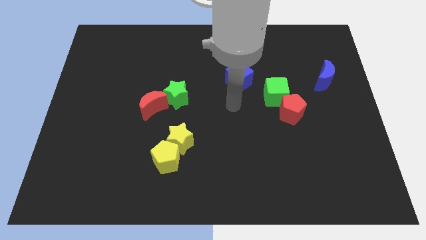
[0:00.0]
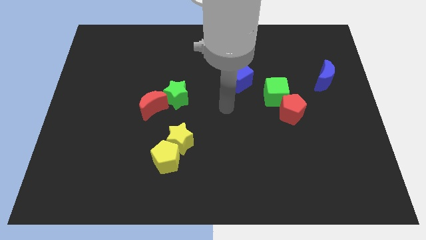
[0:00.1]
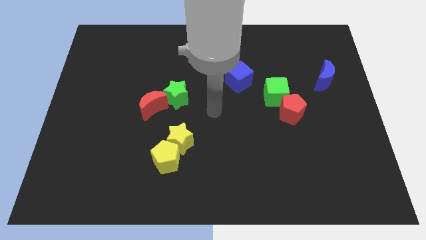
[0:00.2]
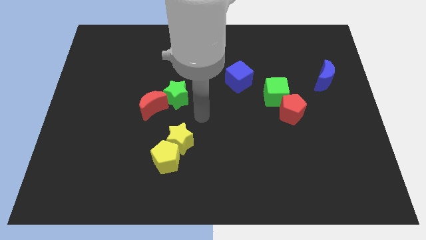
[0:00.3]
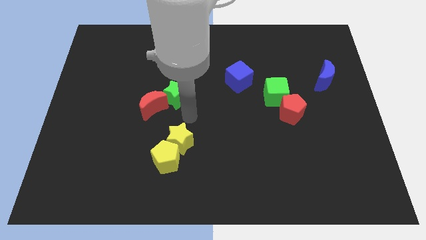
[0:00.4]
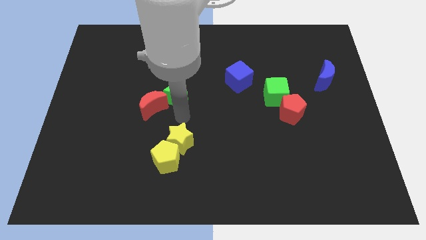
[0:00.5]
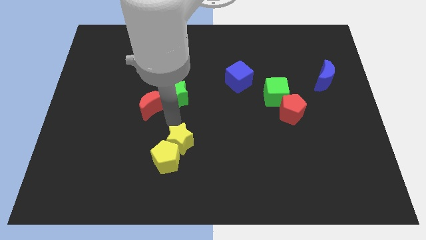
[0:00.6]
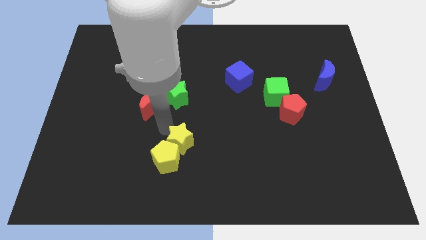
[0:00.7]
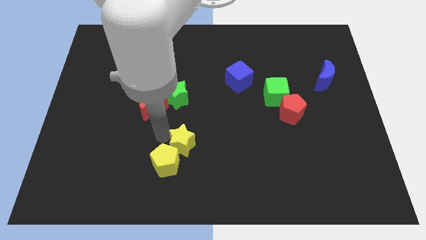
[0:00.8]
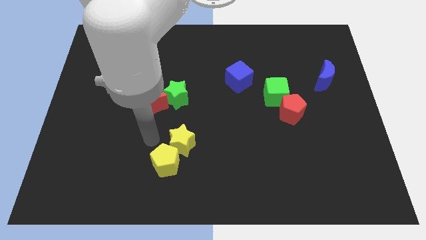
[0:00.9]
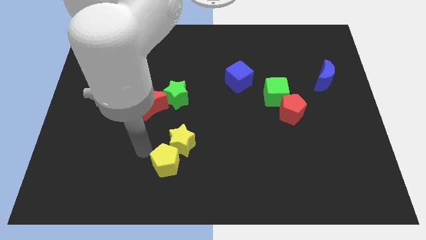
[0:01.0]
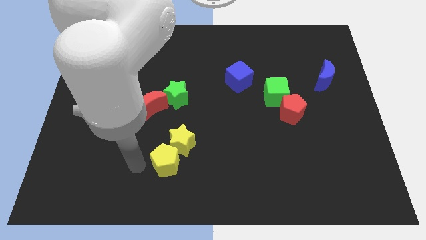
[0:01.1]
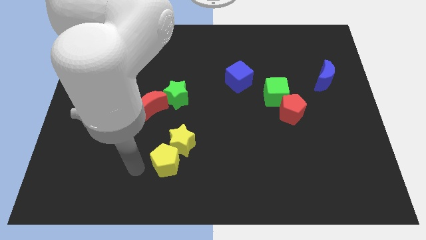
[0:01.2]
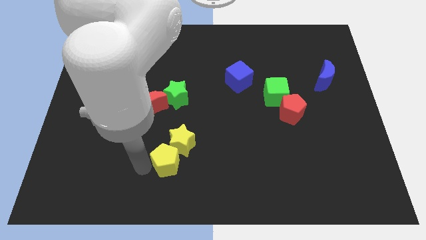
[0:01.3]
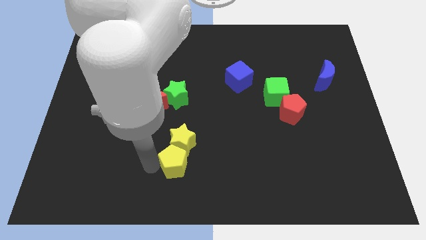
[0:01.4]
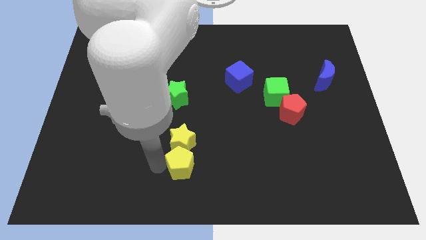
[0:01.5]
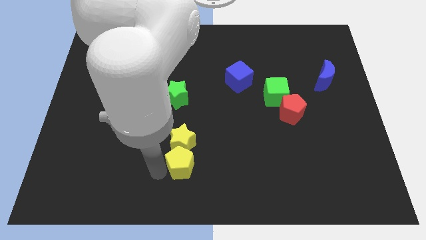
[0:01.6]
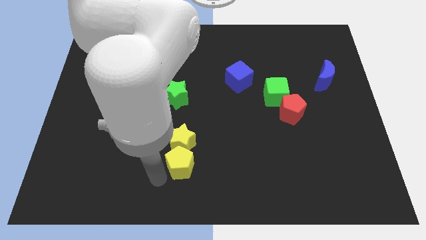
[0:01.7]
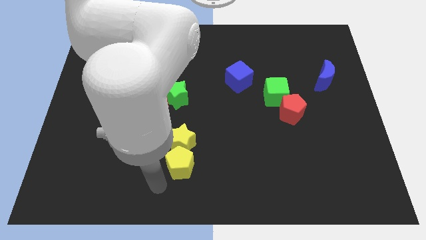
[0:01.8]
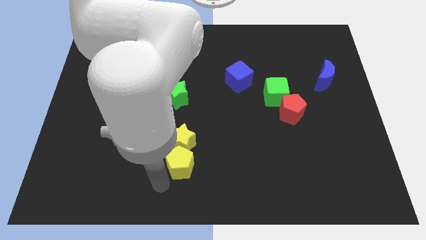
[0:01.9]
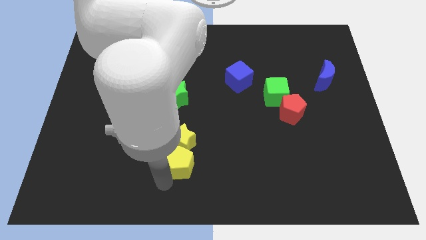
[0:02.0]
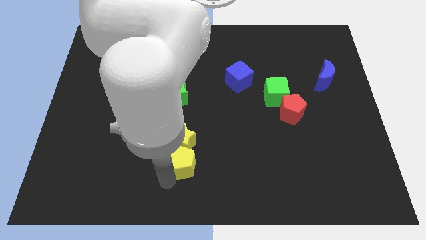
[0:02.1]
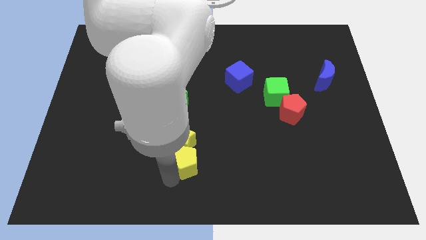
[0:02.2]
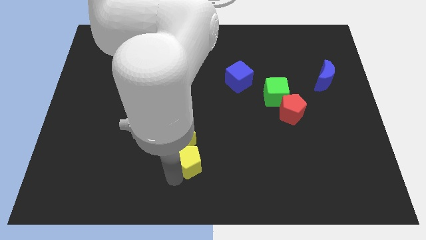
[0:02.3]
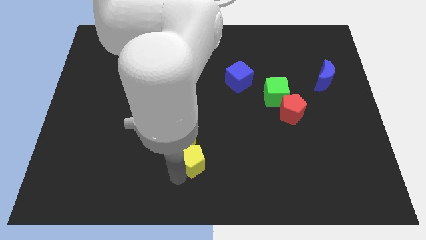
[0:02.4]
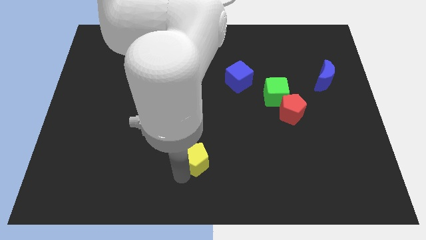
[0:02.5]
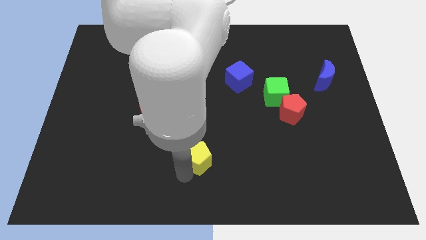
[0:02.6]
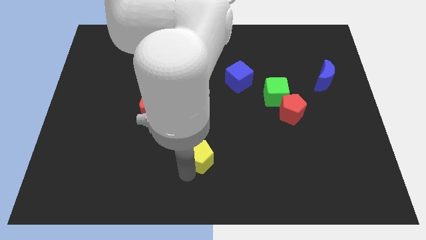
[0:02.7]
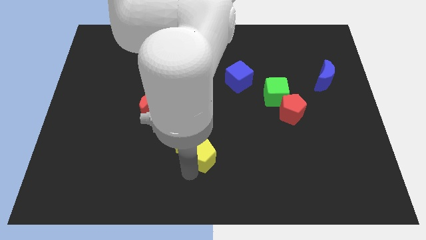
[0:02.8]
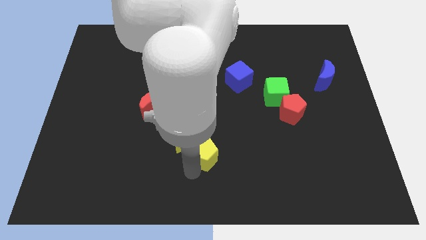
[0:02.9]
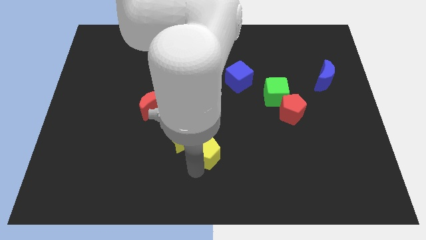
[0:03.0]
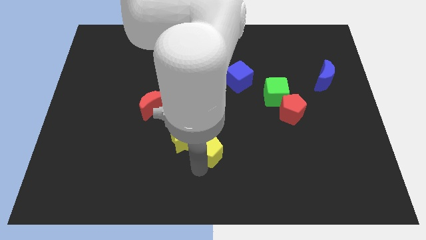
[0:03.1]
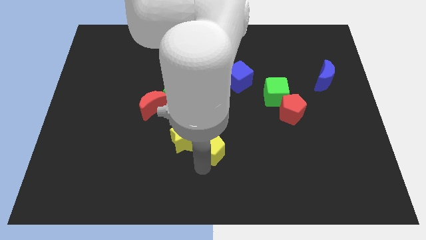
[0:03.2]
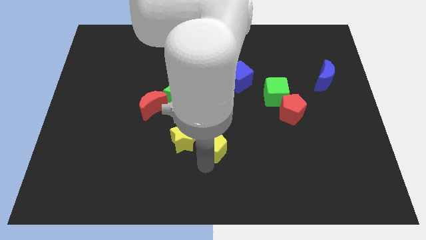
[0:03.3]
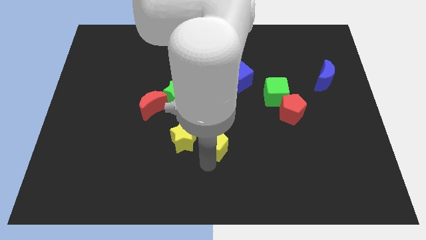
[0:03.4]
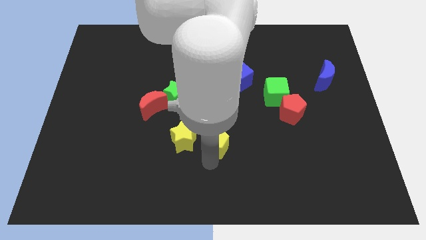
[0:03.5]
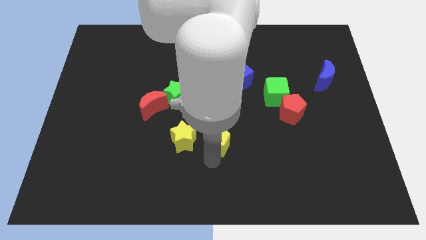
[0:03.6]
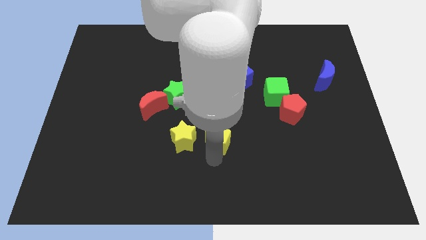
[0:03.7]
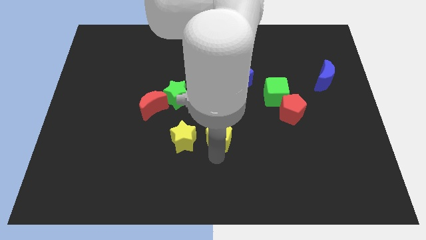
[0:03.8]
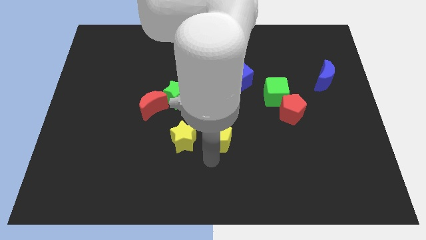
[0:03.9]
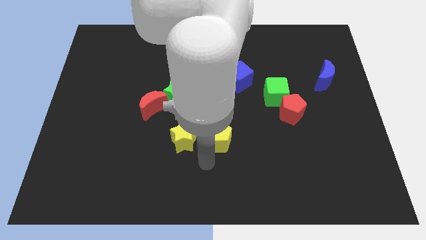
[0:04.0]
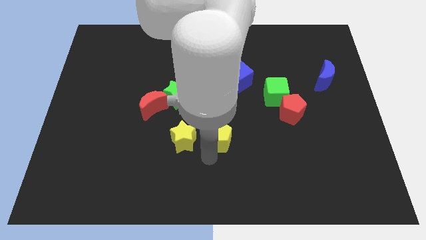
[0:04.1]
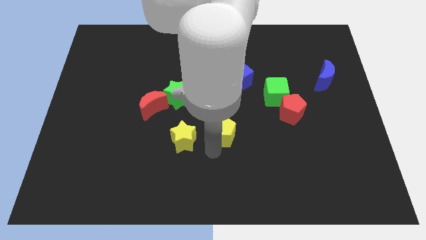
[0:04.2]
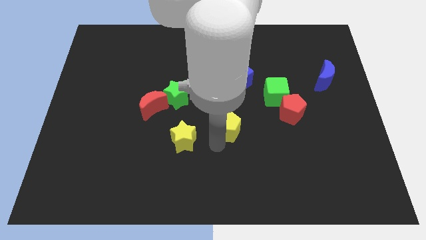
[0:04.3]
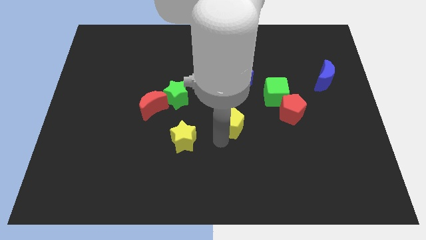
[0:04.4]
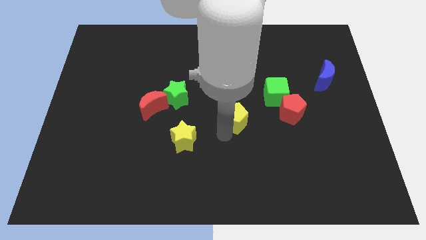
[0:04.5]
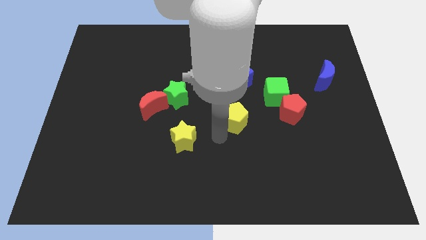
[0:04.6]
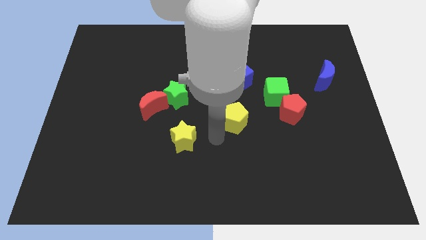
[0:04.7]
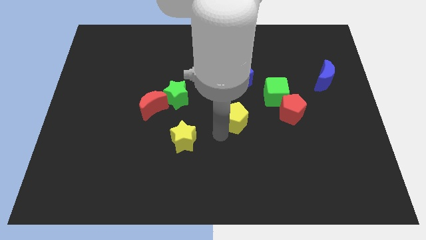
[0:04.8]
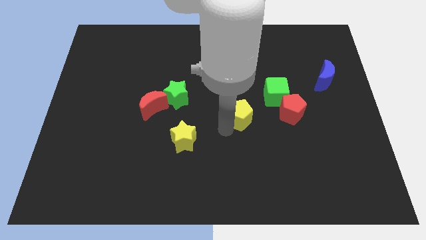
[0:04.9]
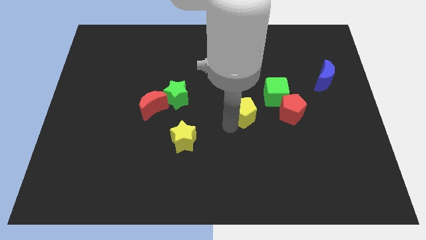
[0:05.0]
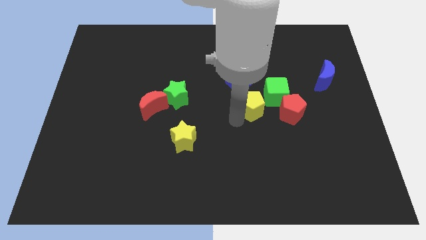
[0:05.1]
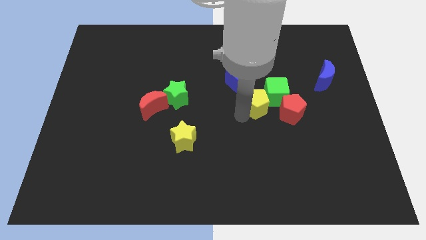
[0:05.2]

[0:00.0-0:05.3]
move the yellow pentagon to the green cube

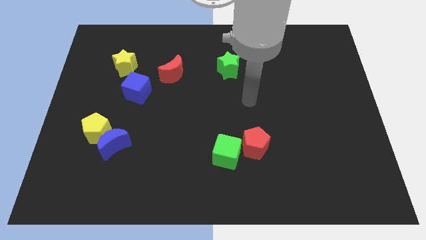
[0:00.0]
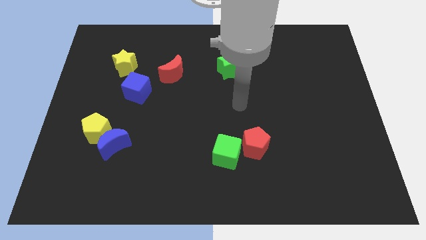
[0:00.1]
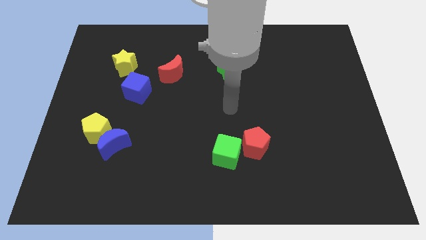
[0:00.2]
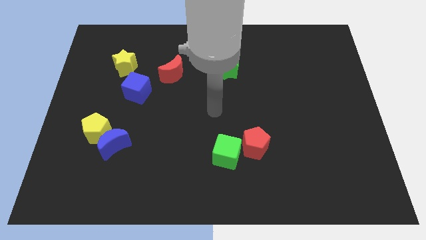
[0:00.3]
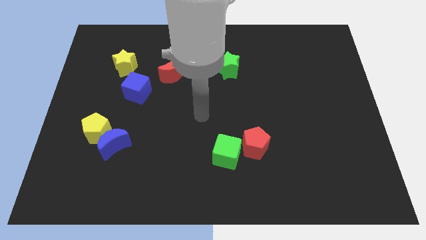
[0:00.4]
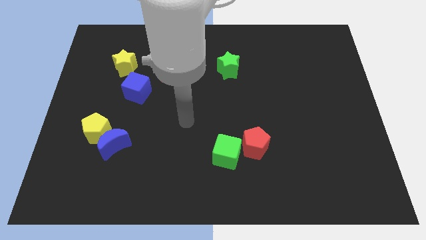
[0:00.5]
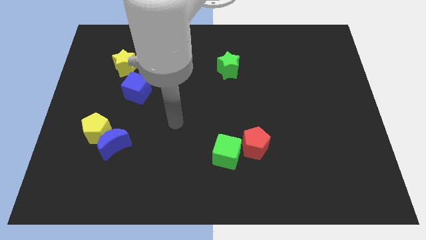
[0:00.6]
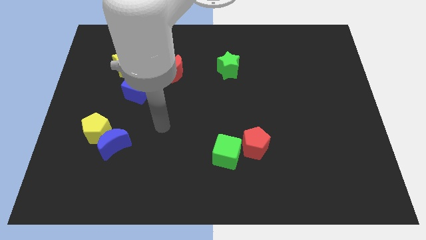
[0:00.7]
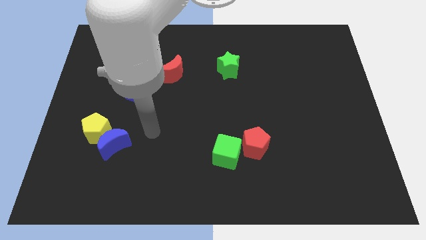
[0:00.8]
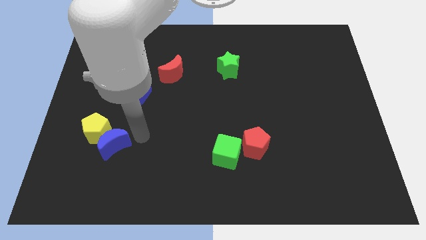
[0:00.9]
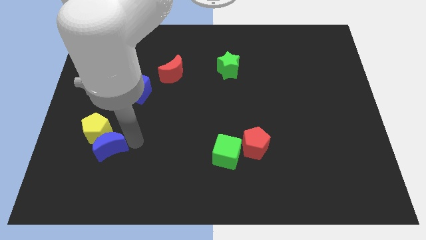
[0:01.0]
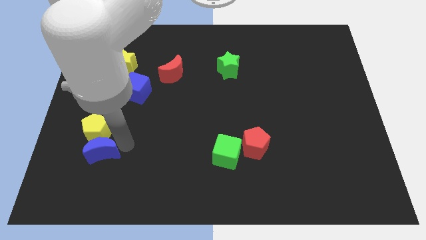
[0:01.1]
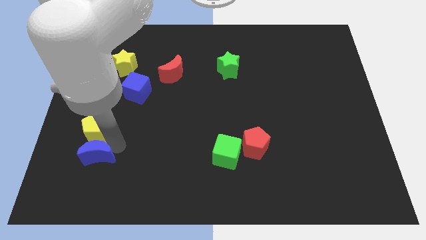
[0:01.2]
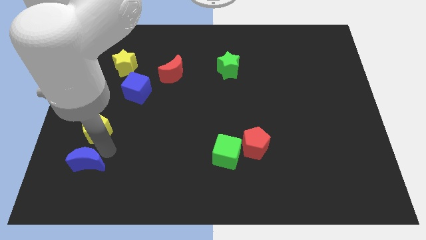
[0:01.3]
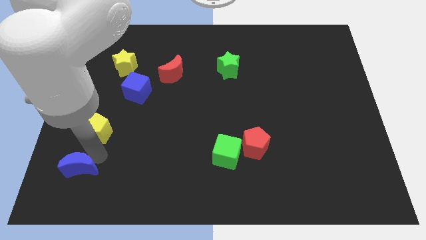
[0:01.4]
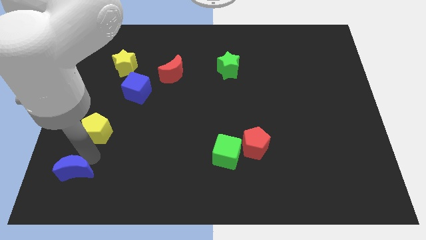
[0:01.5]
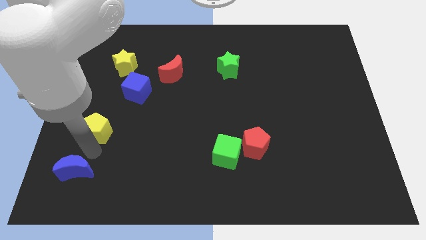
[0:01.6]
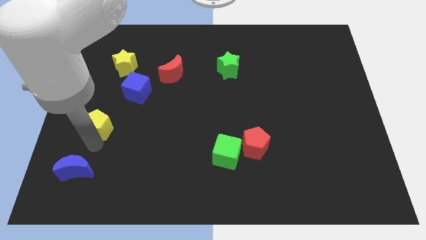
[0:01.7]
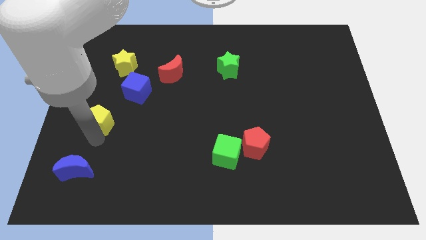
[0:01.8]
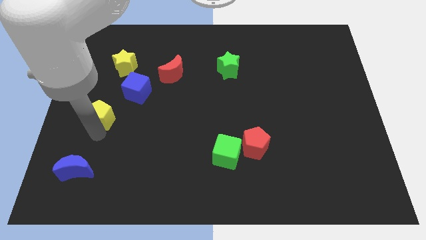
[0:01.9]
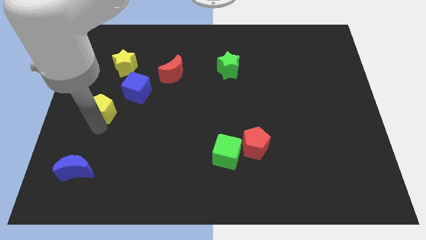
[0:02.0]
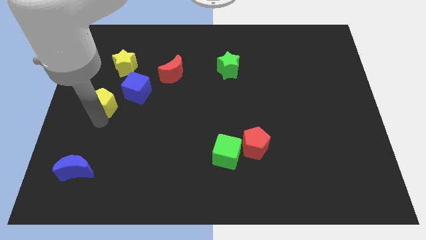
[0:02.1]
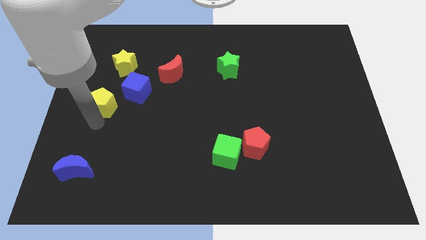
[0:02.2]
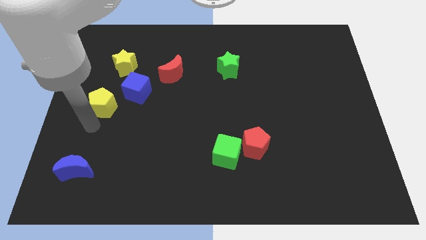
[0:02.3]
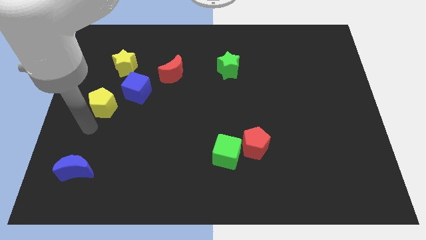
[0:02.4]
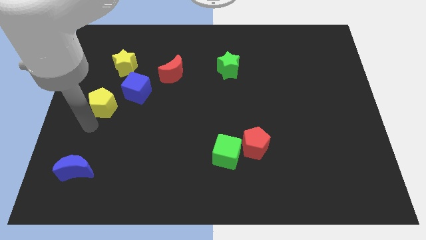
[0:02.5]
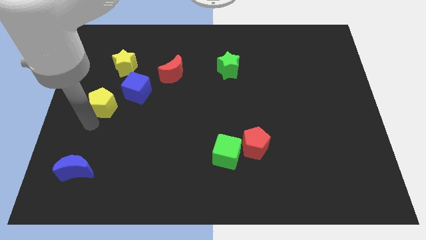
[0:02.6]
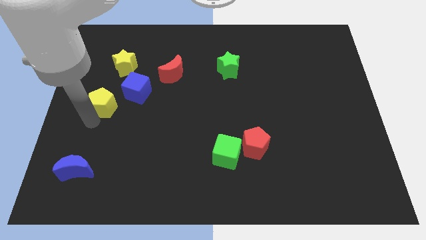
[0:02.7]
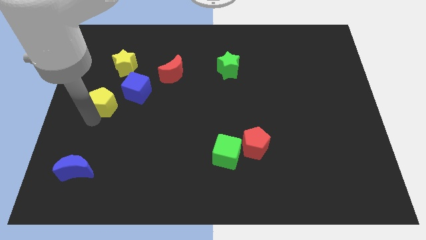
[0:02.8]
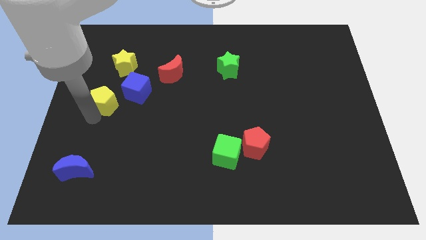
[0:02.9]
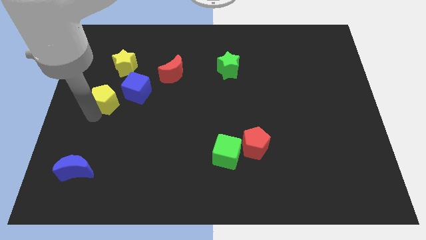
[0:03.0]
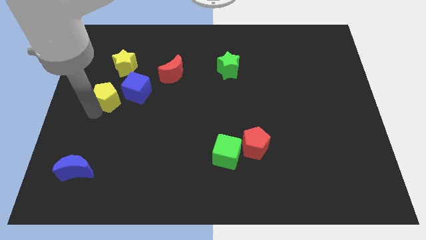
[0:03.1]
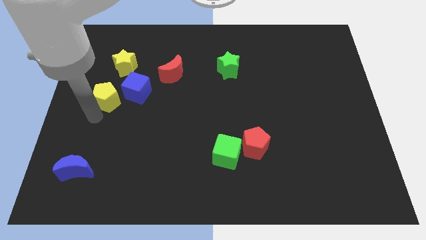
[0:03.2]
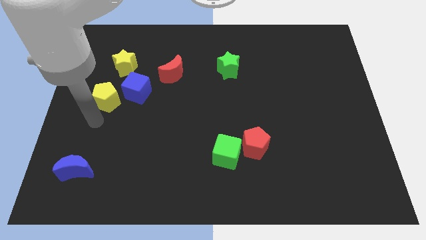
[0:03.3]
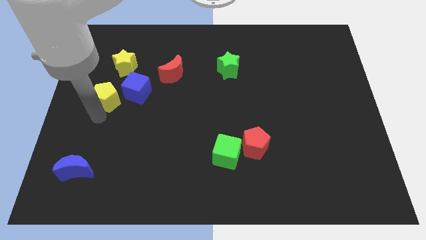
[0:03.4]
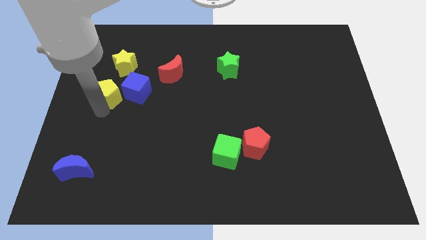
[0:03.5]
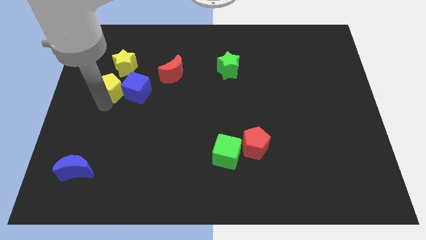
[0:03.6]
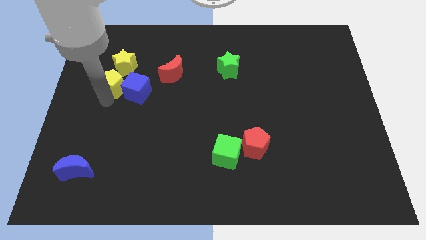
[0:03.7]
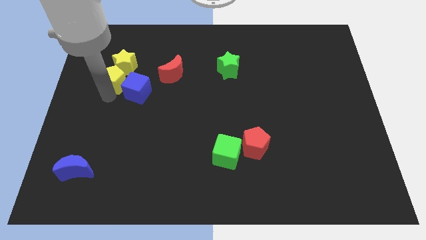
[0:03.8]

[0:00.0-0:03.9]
slide the yellow pentagon close to the yellow star
